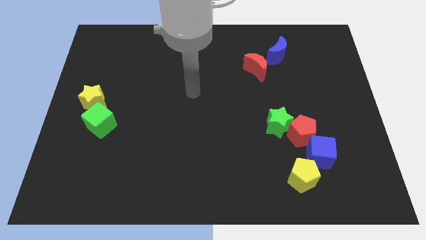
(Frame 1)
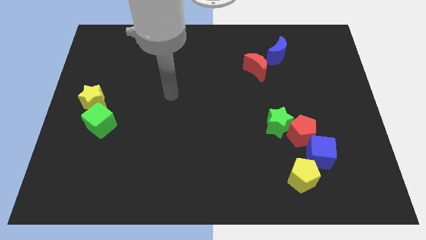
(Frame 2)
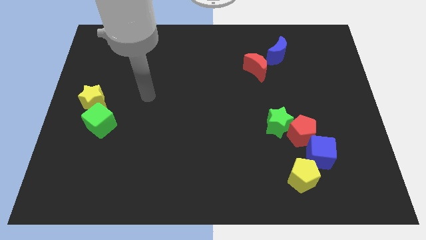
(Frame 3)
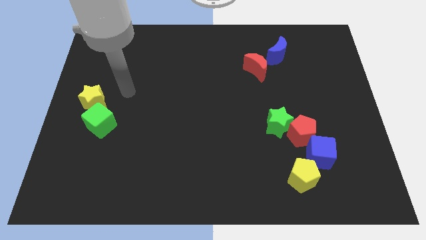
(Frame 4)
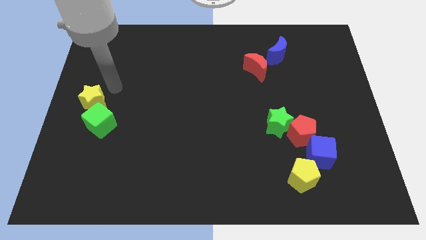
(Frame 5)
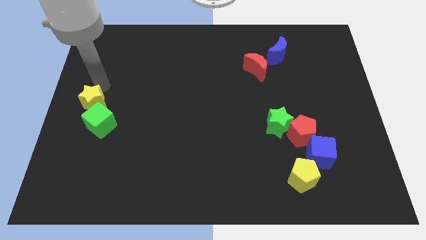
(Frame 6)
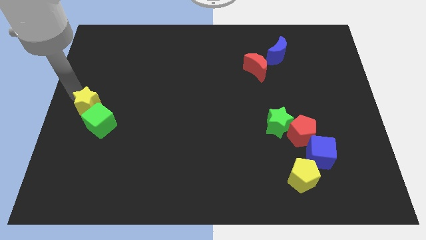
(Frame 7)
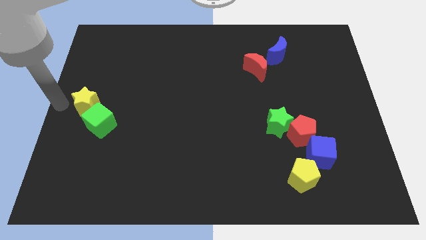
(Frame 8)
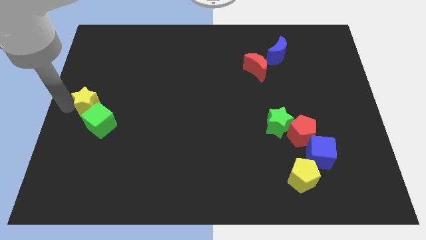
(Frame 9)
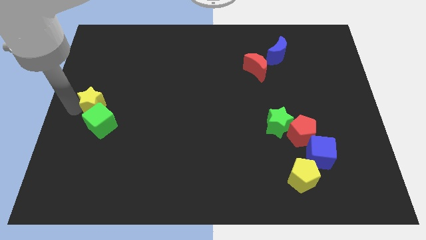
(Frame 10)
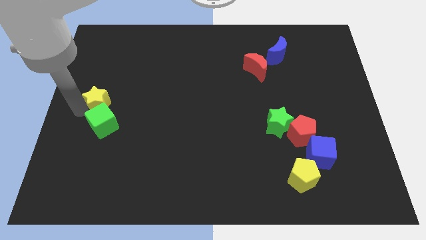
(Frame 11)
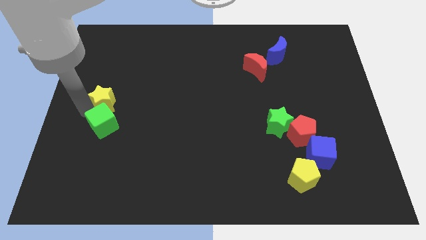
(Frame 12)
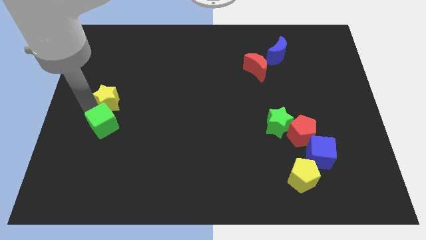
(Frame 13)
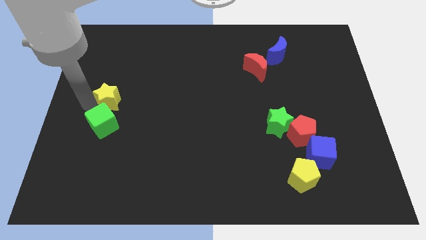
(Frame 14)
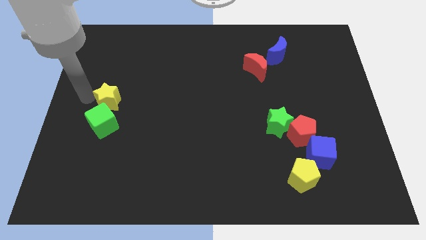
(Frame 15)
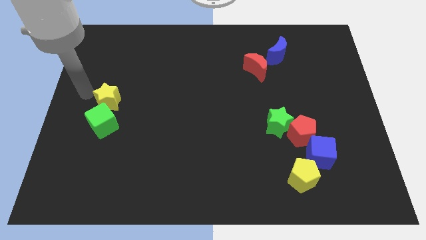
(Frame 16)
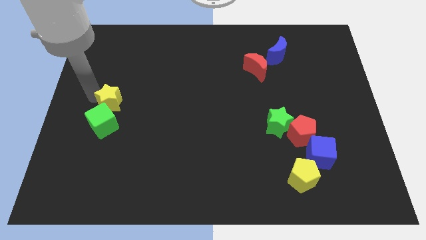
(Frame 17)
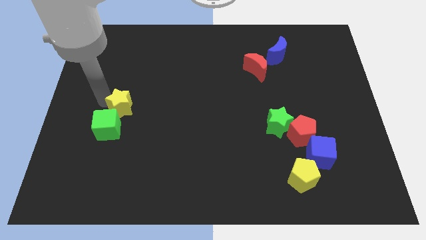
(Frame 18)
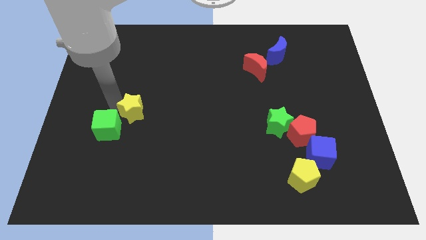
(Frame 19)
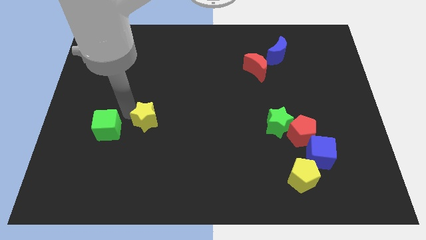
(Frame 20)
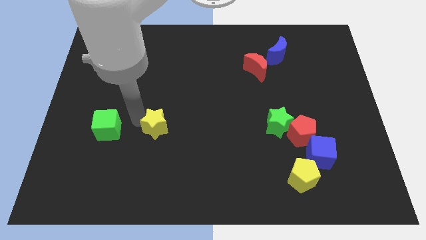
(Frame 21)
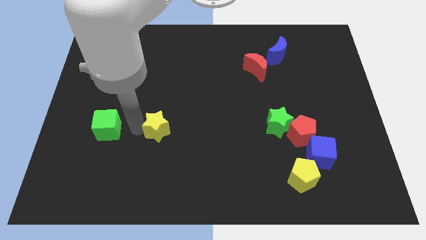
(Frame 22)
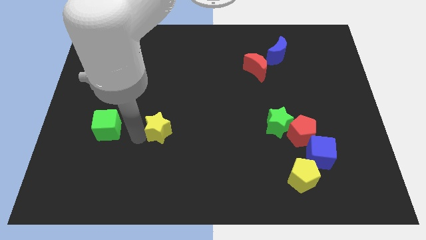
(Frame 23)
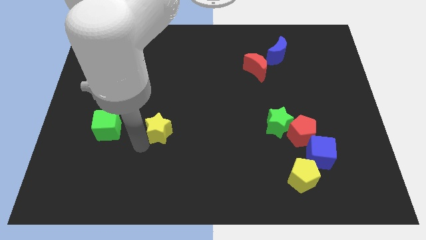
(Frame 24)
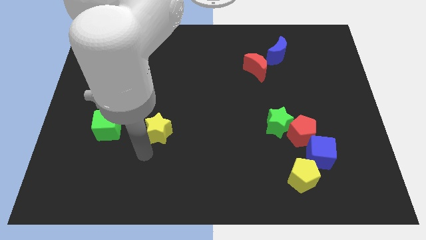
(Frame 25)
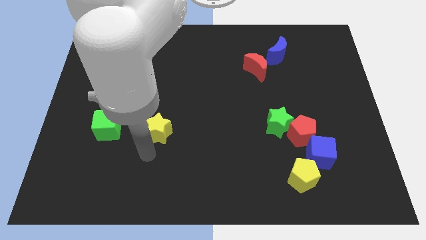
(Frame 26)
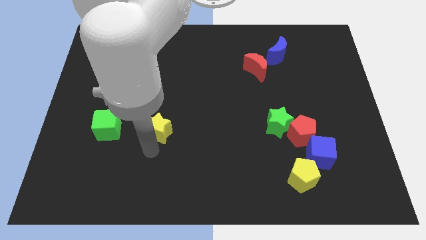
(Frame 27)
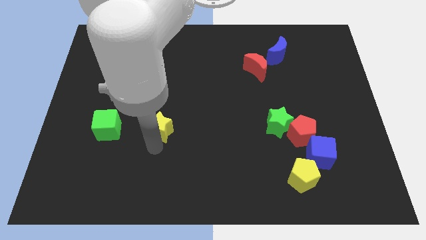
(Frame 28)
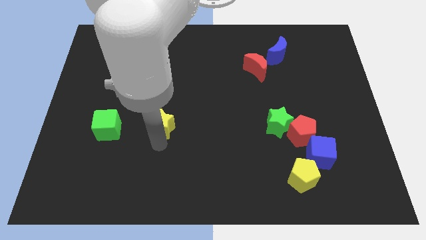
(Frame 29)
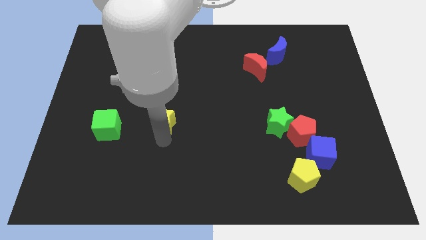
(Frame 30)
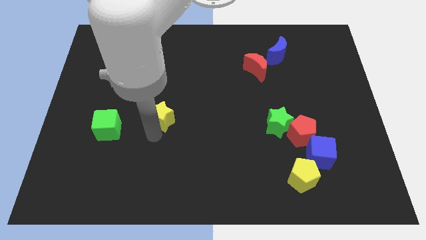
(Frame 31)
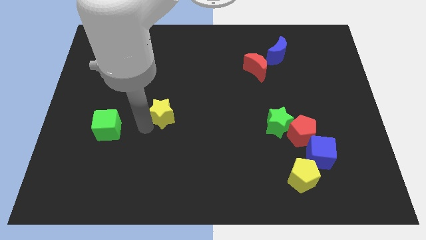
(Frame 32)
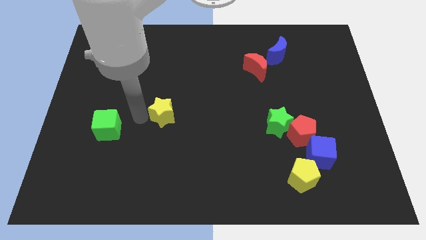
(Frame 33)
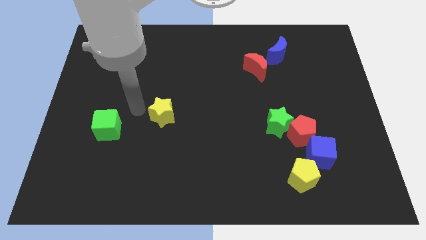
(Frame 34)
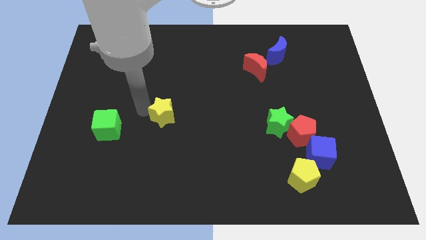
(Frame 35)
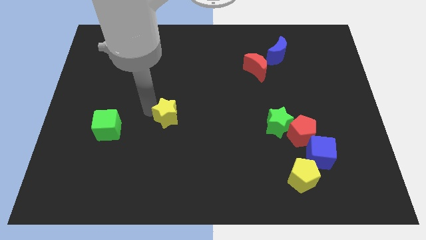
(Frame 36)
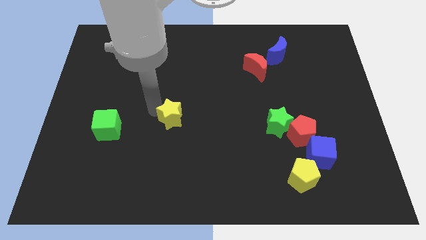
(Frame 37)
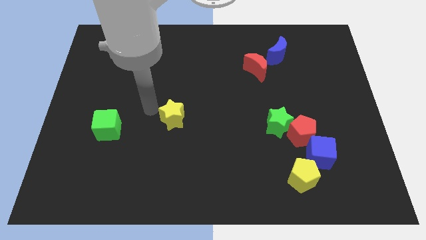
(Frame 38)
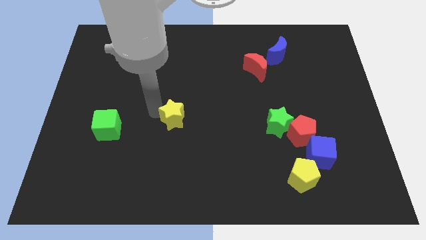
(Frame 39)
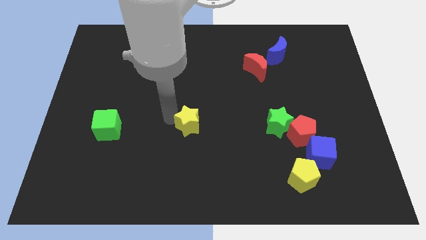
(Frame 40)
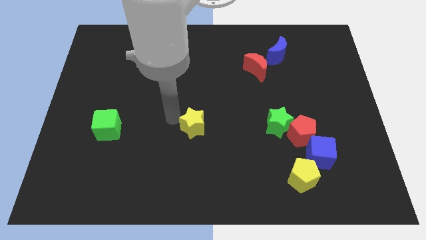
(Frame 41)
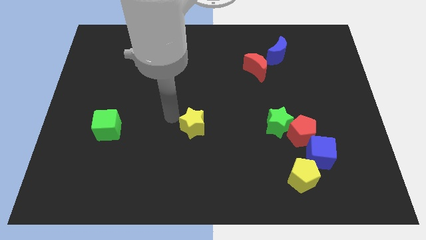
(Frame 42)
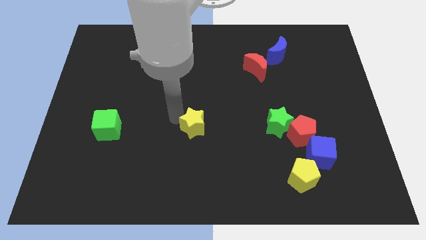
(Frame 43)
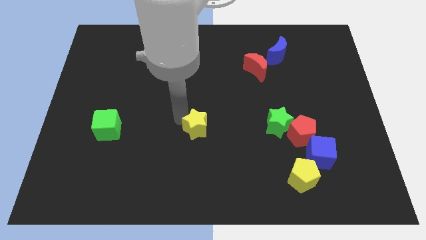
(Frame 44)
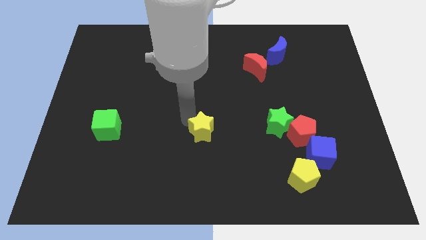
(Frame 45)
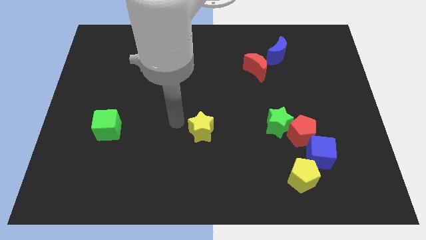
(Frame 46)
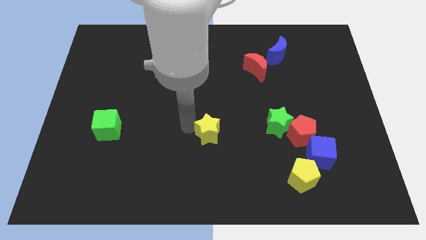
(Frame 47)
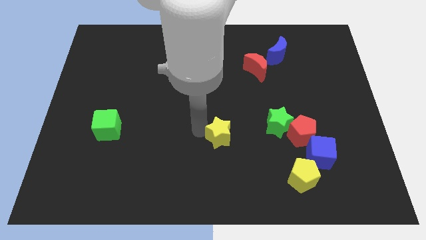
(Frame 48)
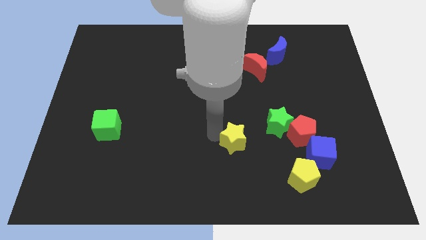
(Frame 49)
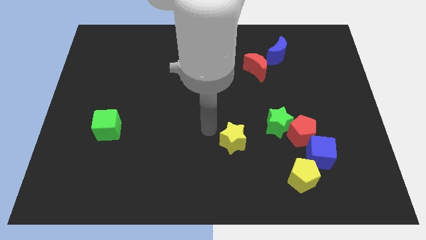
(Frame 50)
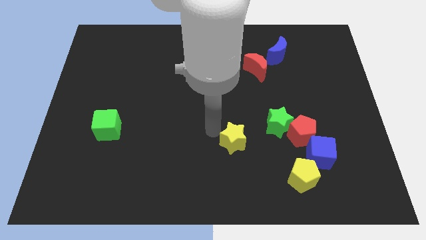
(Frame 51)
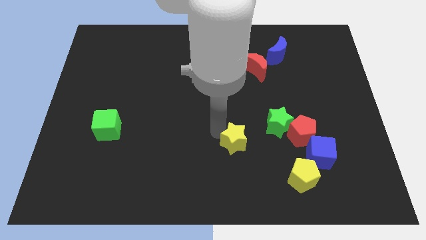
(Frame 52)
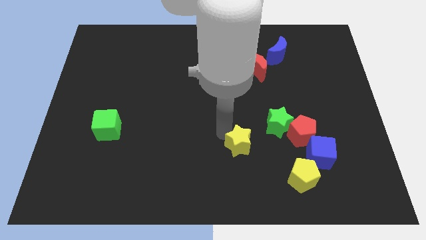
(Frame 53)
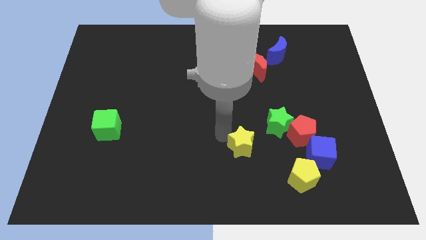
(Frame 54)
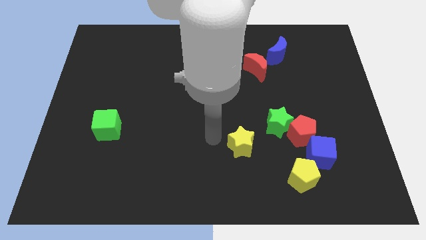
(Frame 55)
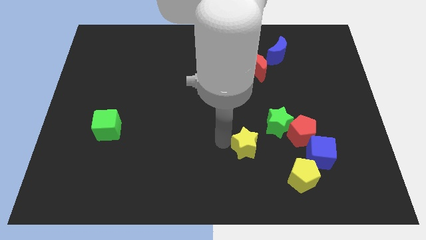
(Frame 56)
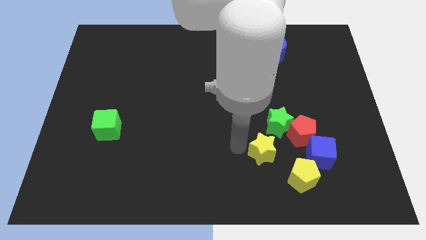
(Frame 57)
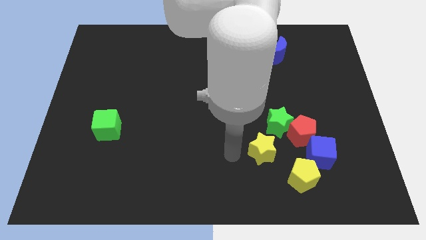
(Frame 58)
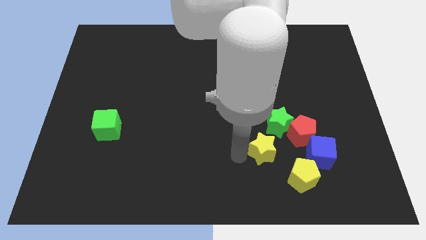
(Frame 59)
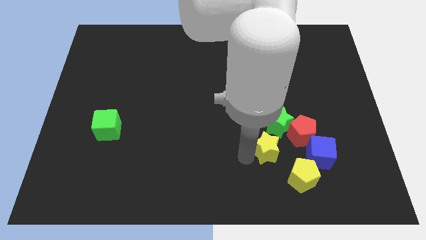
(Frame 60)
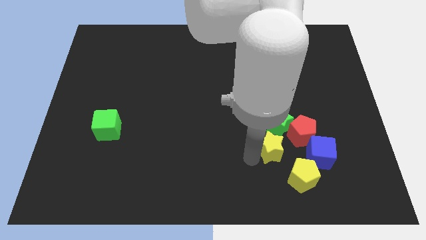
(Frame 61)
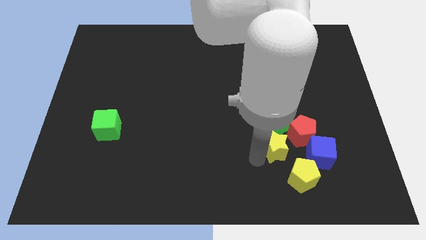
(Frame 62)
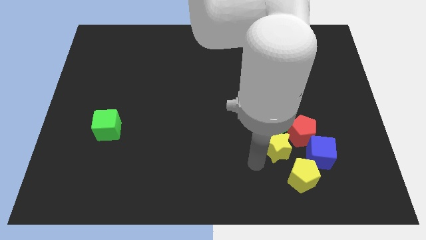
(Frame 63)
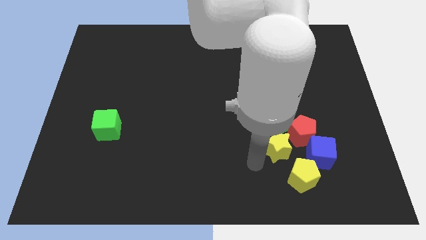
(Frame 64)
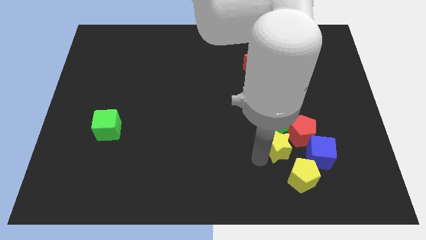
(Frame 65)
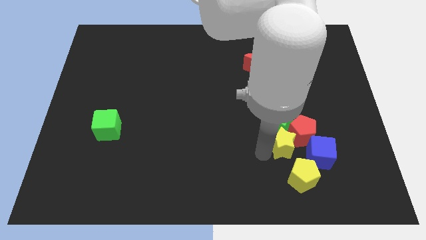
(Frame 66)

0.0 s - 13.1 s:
slide the yellow star to the red pentagon

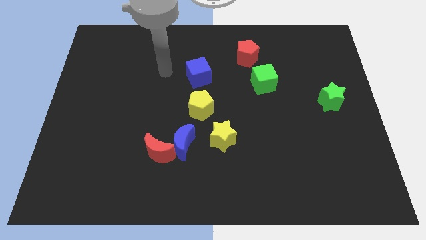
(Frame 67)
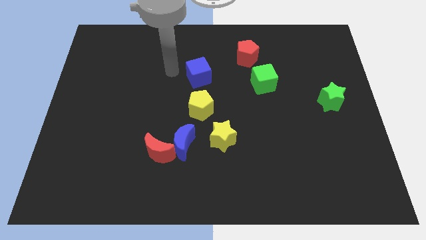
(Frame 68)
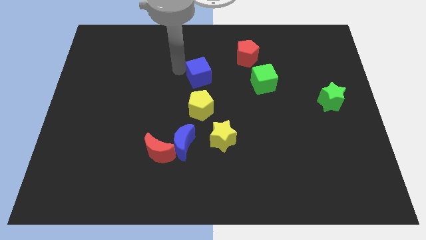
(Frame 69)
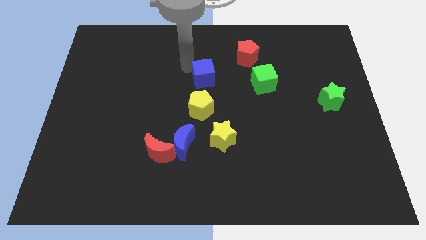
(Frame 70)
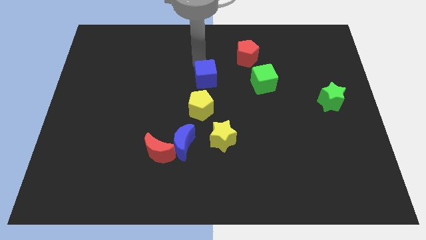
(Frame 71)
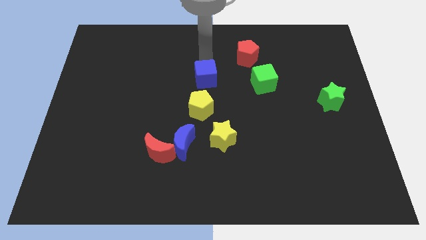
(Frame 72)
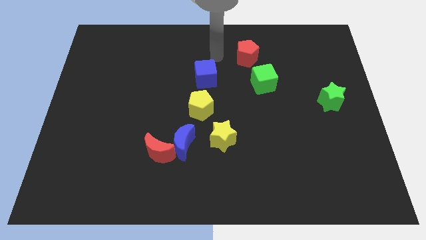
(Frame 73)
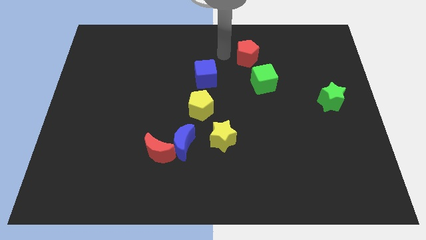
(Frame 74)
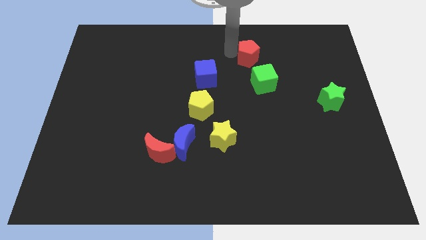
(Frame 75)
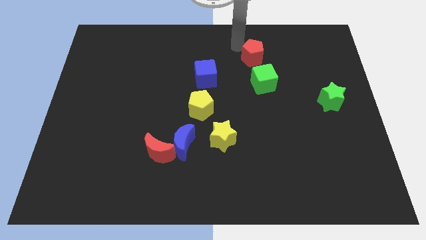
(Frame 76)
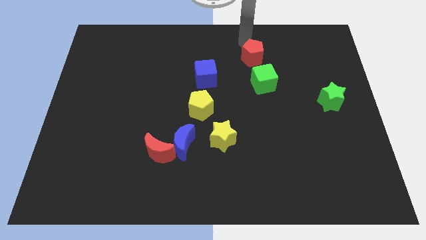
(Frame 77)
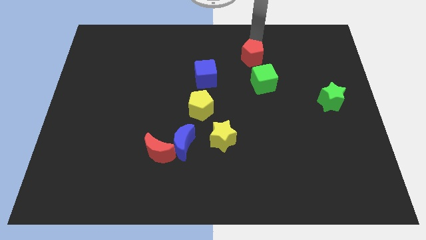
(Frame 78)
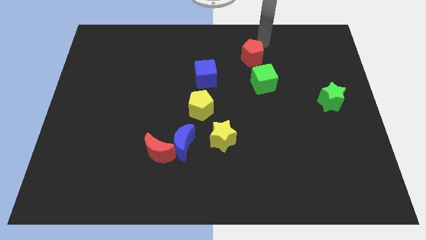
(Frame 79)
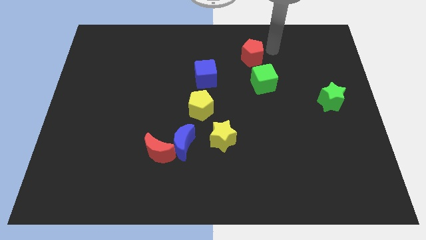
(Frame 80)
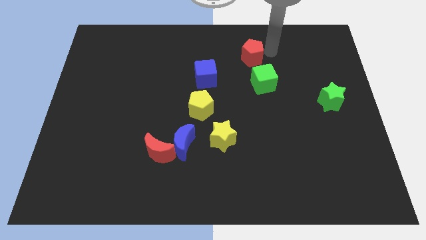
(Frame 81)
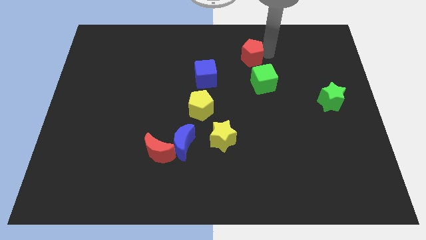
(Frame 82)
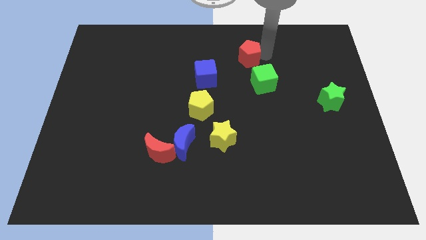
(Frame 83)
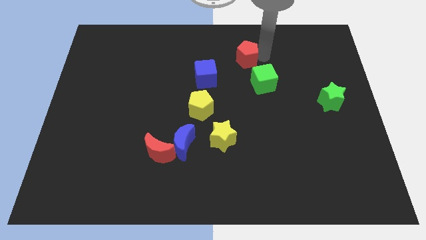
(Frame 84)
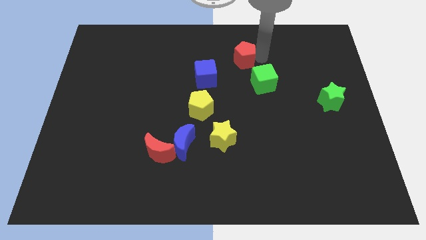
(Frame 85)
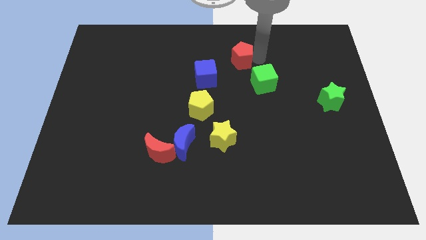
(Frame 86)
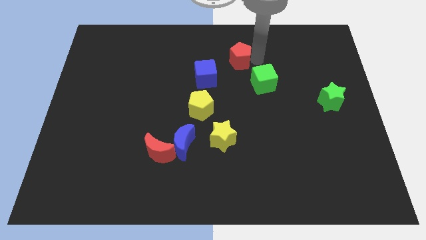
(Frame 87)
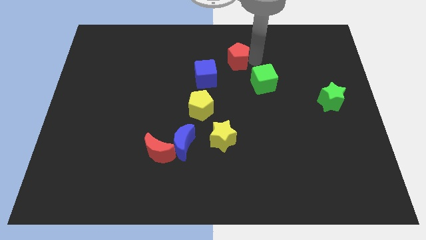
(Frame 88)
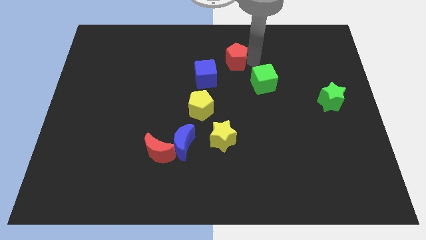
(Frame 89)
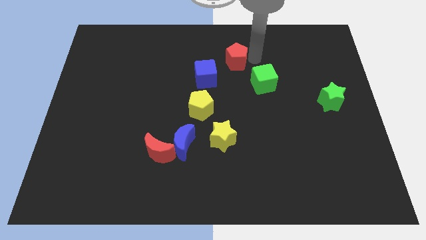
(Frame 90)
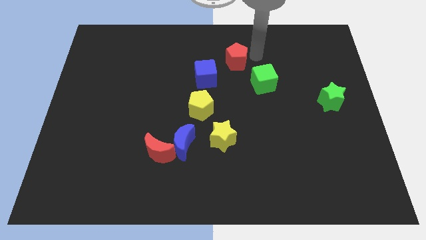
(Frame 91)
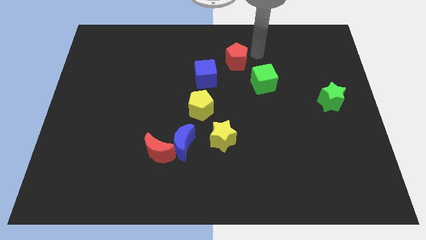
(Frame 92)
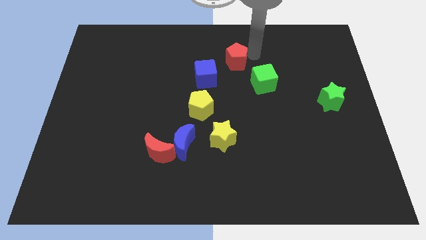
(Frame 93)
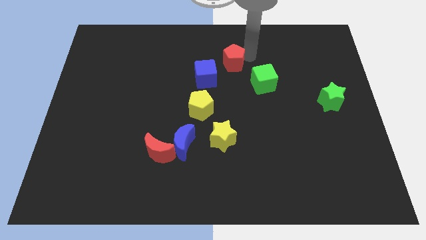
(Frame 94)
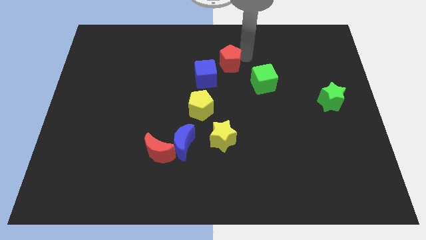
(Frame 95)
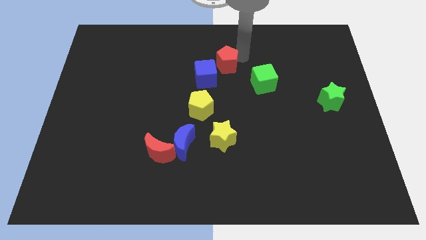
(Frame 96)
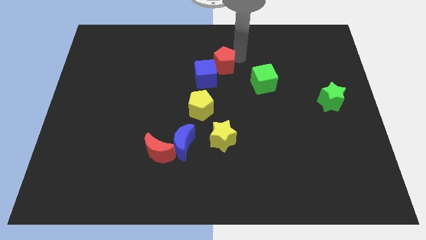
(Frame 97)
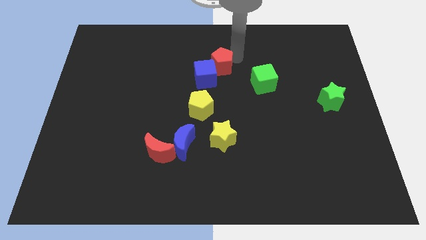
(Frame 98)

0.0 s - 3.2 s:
move the red pentagon to the blue cube
